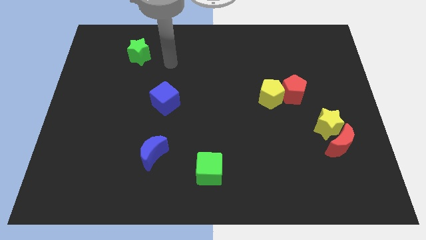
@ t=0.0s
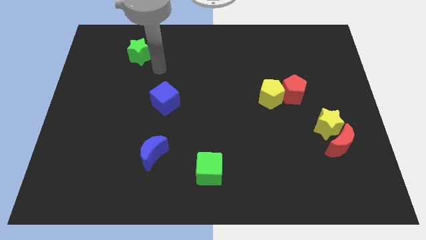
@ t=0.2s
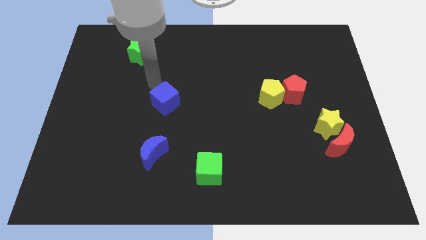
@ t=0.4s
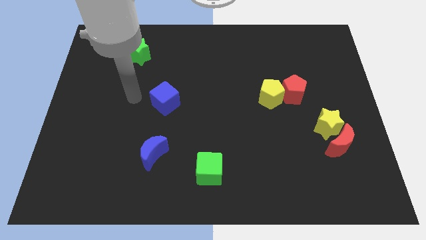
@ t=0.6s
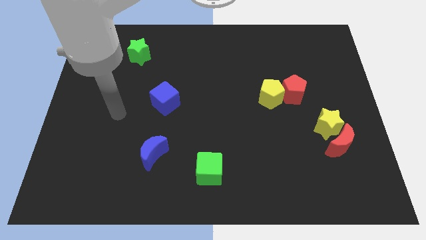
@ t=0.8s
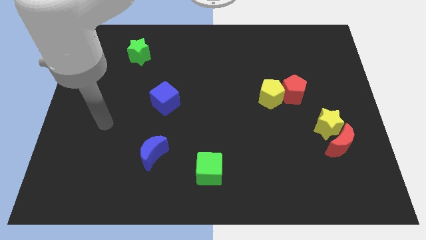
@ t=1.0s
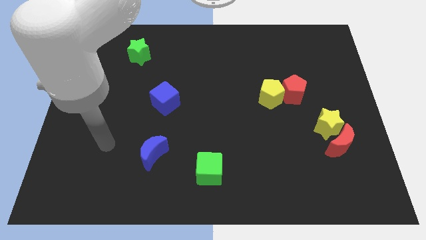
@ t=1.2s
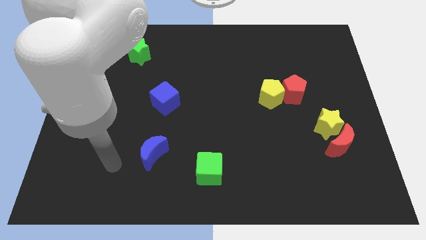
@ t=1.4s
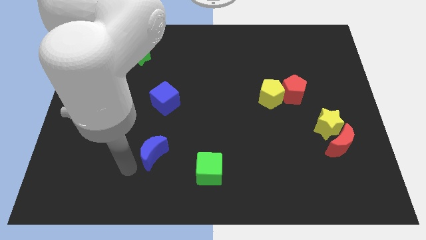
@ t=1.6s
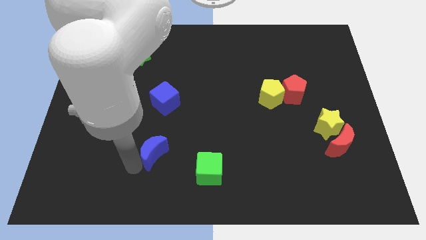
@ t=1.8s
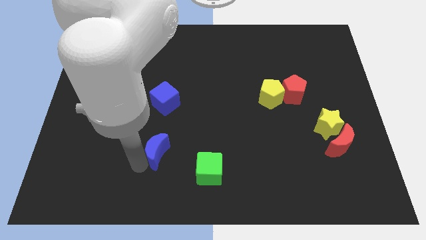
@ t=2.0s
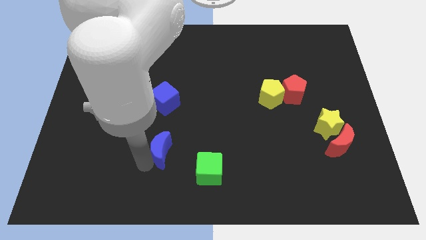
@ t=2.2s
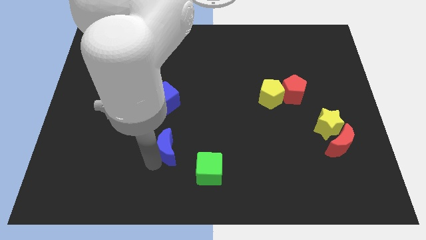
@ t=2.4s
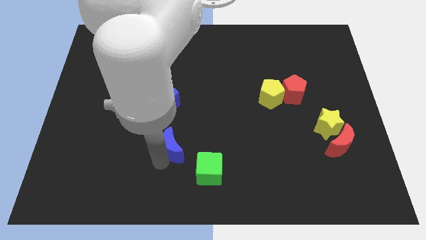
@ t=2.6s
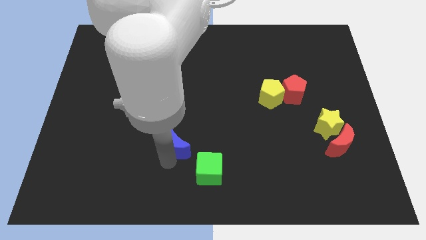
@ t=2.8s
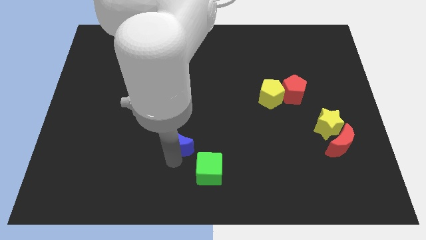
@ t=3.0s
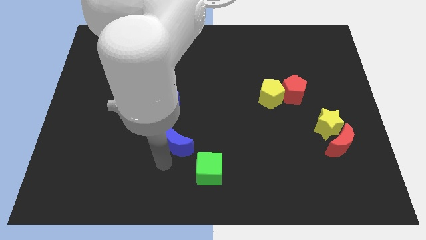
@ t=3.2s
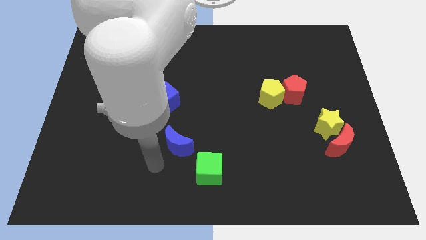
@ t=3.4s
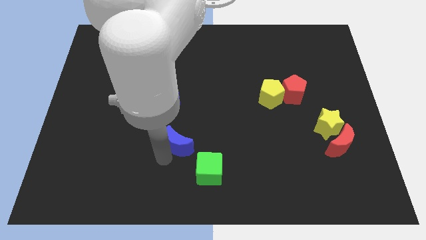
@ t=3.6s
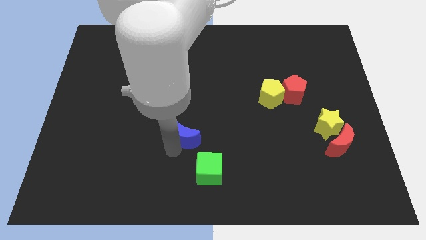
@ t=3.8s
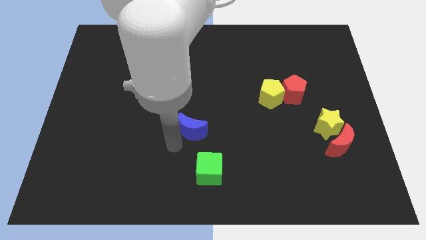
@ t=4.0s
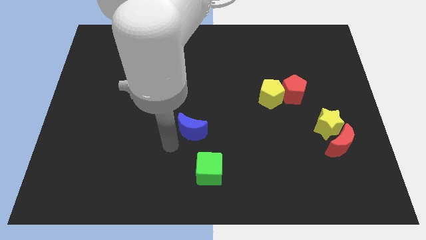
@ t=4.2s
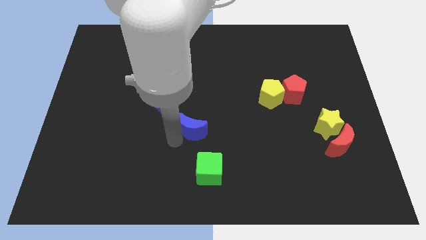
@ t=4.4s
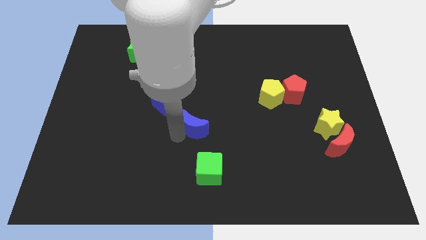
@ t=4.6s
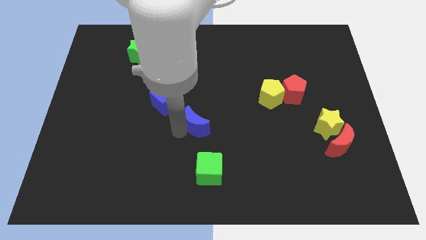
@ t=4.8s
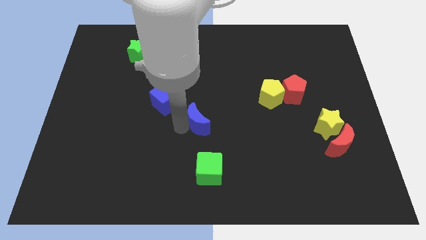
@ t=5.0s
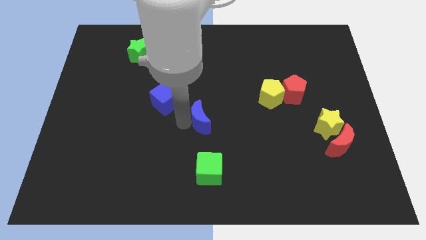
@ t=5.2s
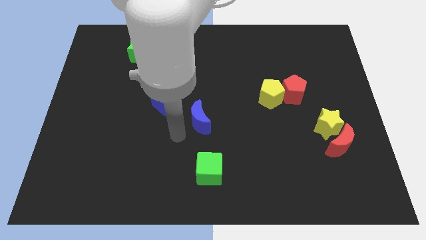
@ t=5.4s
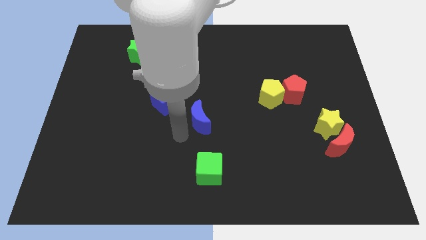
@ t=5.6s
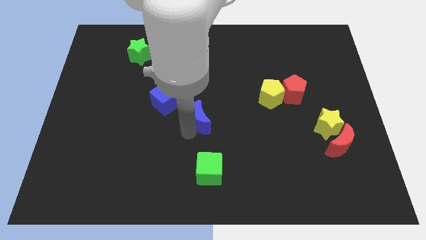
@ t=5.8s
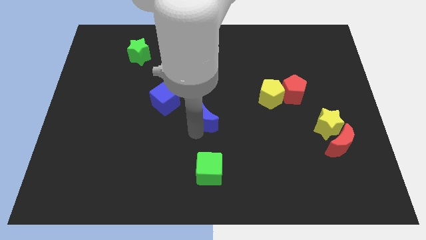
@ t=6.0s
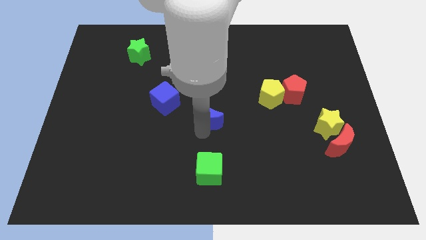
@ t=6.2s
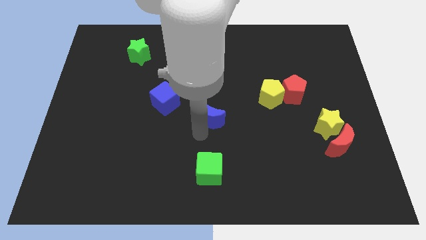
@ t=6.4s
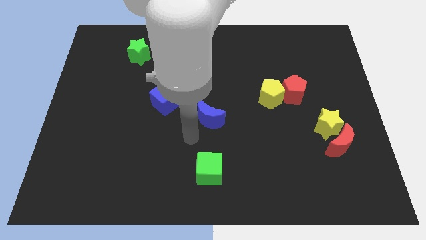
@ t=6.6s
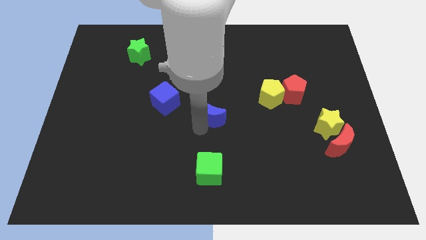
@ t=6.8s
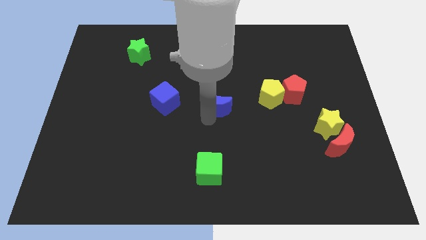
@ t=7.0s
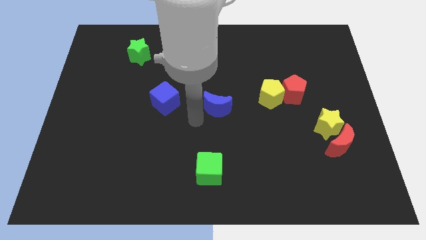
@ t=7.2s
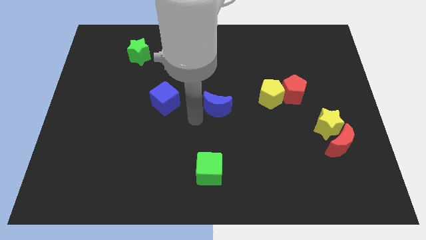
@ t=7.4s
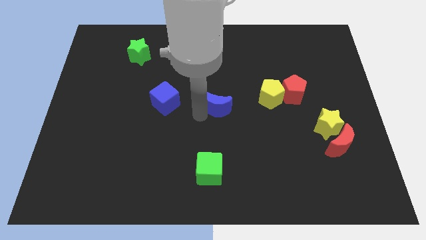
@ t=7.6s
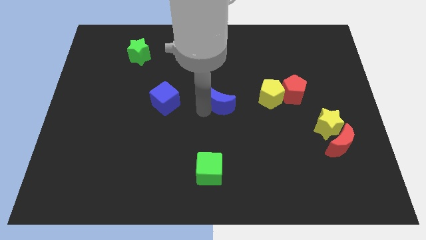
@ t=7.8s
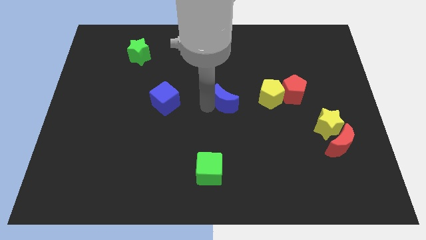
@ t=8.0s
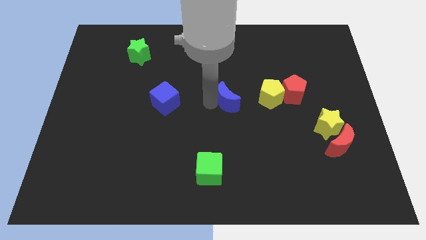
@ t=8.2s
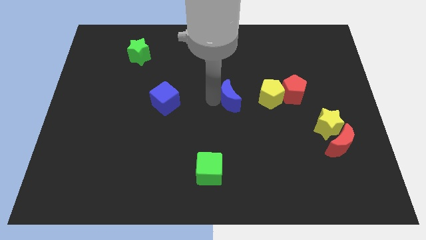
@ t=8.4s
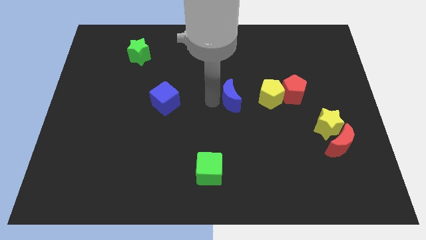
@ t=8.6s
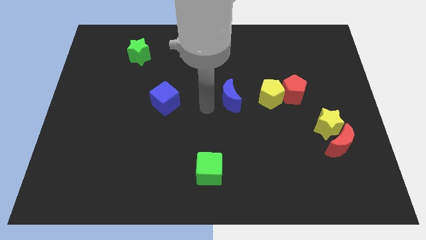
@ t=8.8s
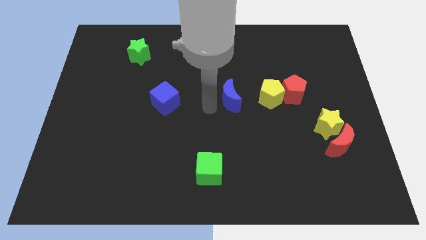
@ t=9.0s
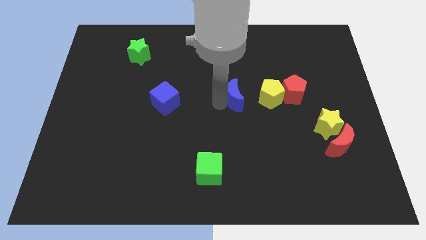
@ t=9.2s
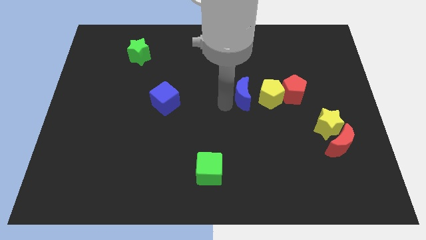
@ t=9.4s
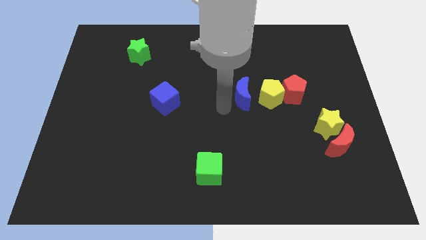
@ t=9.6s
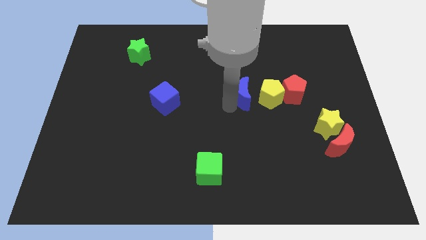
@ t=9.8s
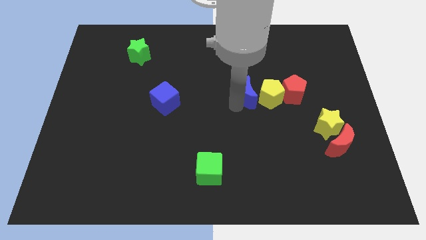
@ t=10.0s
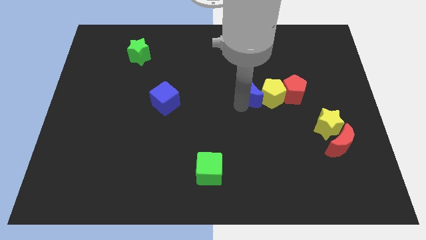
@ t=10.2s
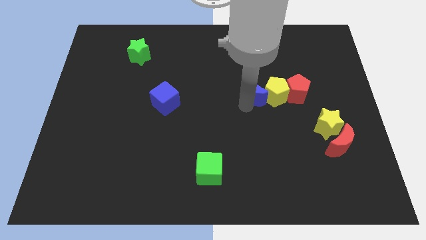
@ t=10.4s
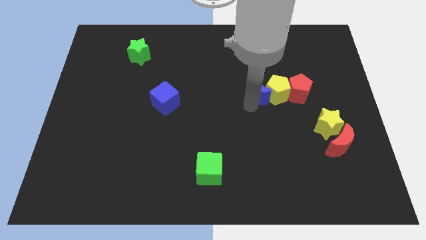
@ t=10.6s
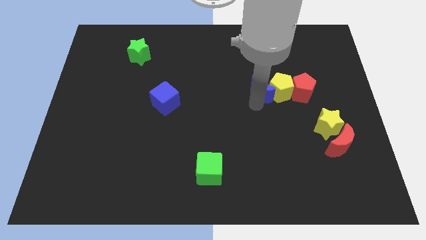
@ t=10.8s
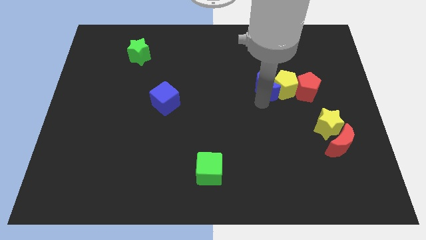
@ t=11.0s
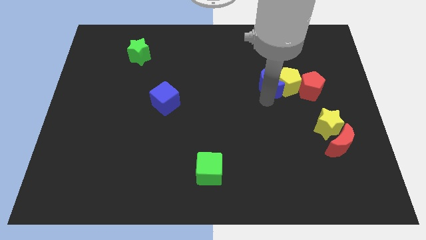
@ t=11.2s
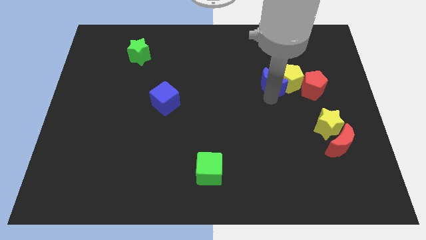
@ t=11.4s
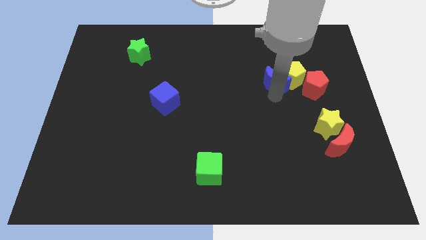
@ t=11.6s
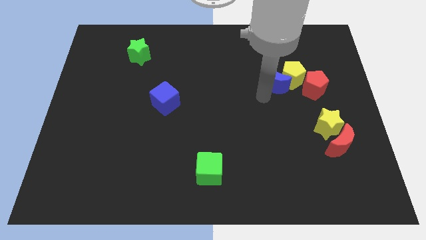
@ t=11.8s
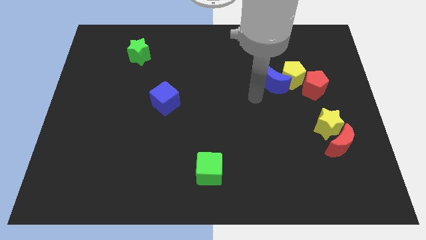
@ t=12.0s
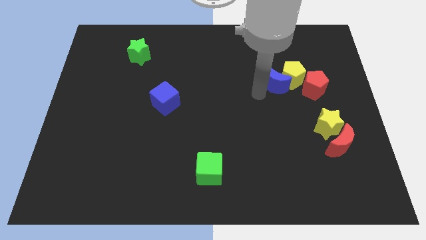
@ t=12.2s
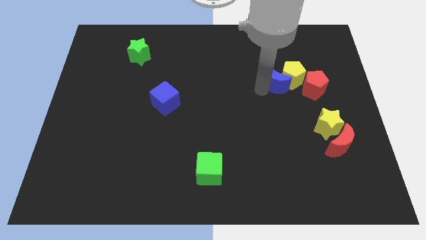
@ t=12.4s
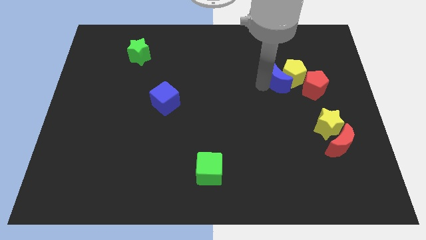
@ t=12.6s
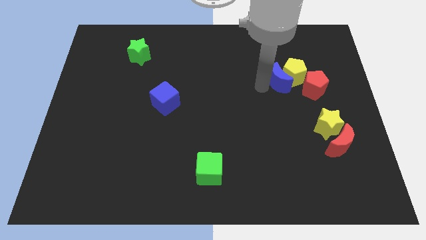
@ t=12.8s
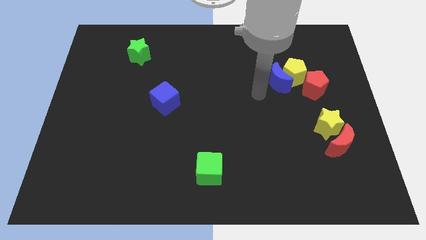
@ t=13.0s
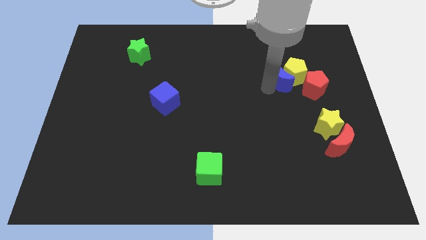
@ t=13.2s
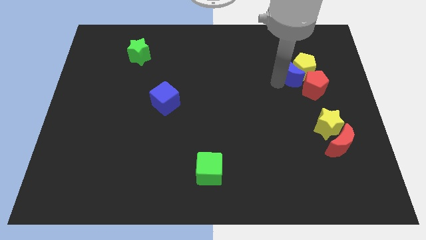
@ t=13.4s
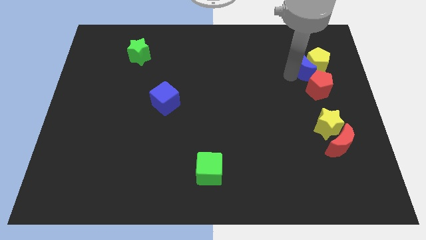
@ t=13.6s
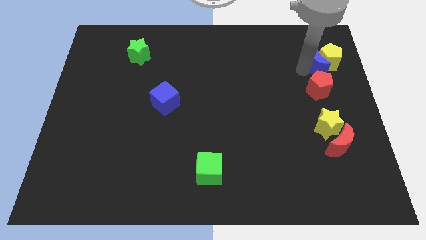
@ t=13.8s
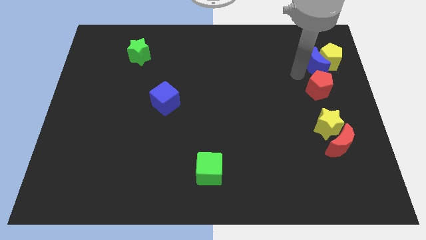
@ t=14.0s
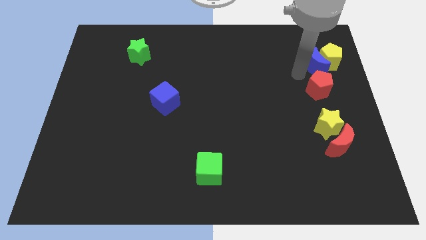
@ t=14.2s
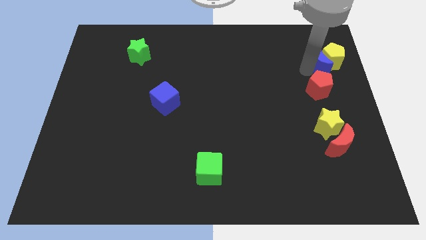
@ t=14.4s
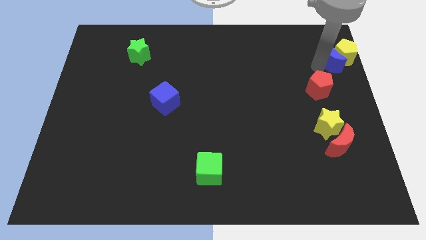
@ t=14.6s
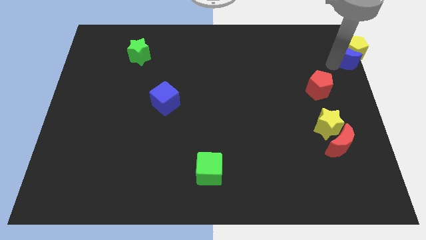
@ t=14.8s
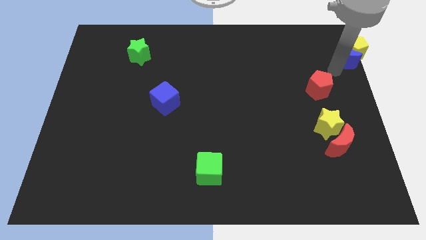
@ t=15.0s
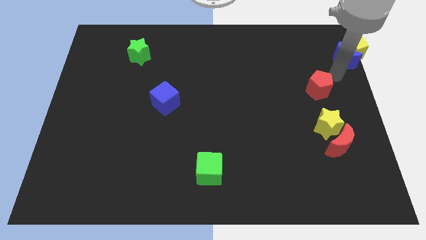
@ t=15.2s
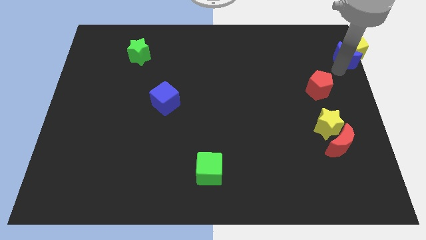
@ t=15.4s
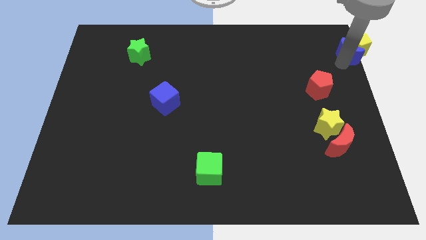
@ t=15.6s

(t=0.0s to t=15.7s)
put the blue moon to the top right of the board
